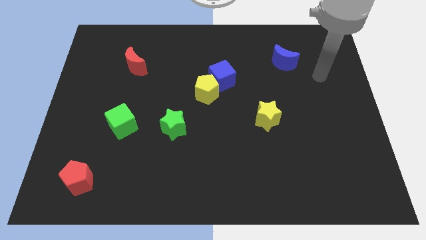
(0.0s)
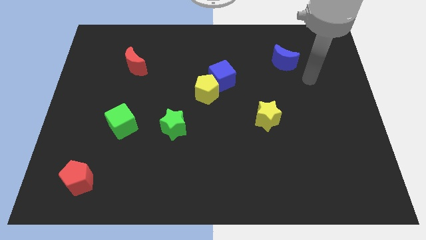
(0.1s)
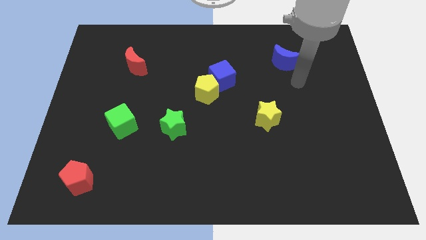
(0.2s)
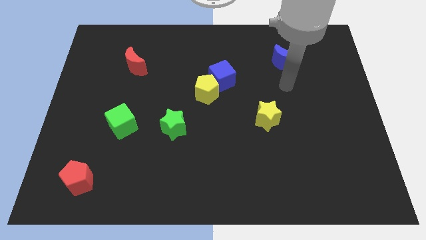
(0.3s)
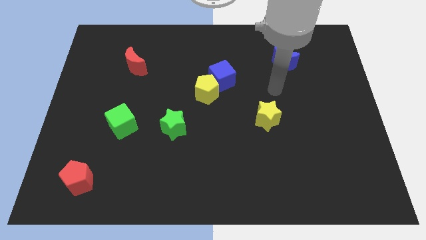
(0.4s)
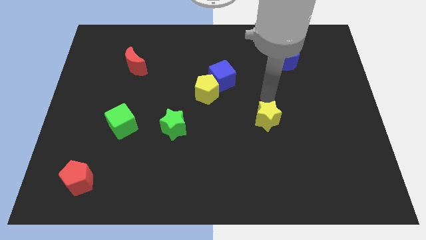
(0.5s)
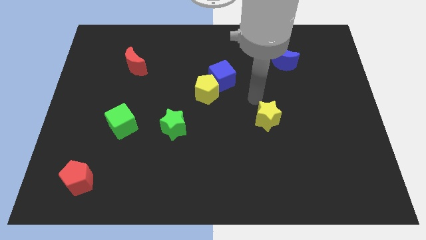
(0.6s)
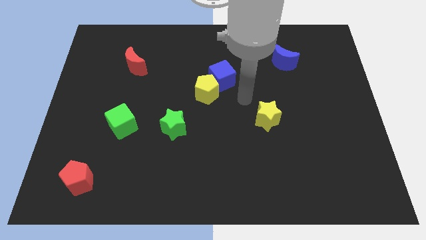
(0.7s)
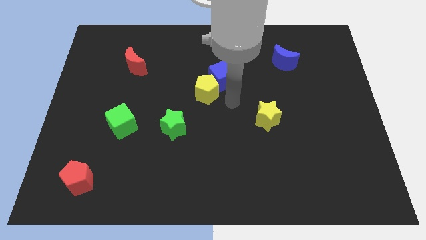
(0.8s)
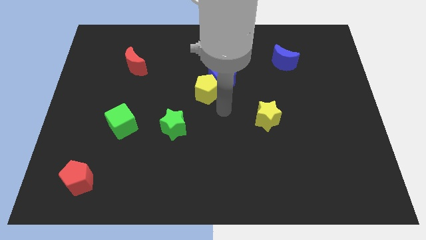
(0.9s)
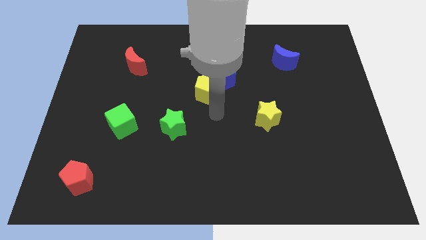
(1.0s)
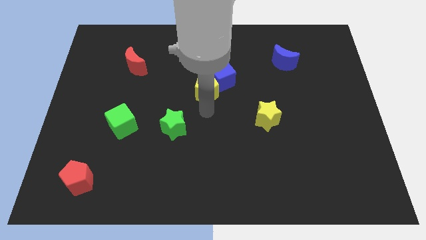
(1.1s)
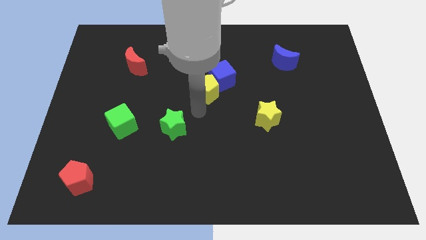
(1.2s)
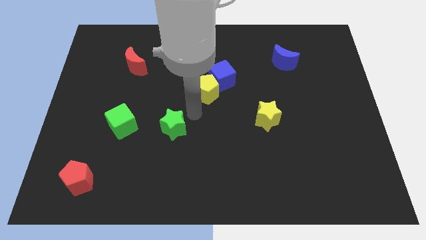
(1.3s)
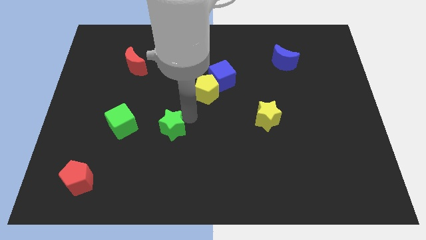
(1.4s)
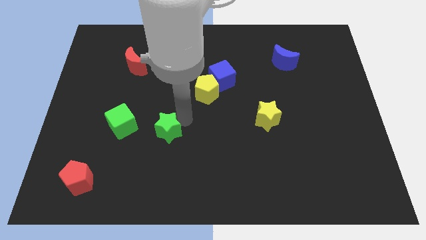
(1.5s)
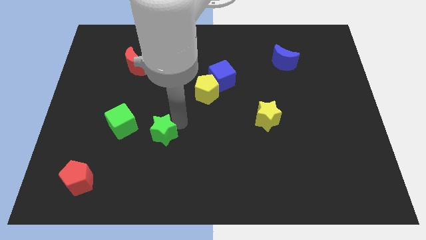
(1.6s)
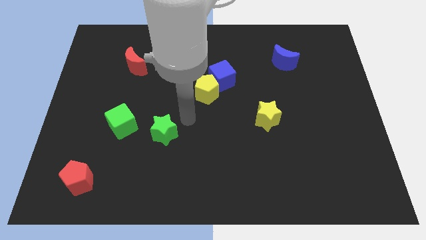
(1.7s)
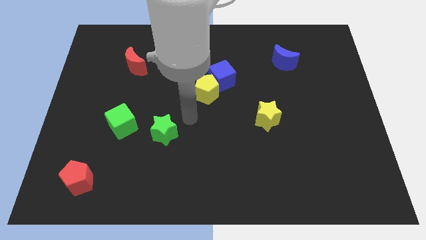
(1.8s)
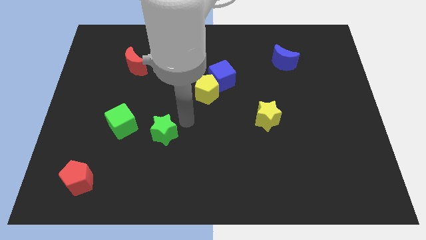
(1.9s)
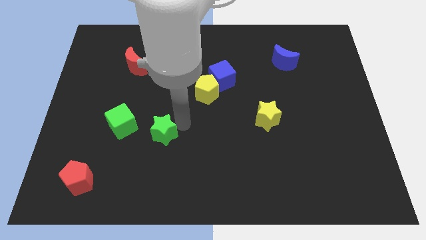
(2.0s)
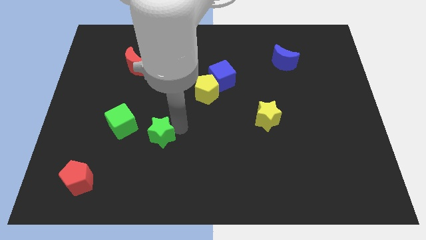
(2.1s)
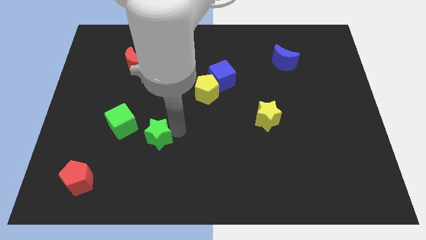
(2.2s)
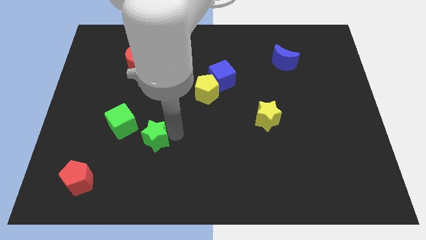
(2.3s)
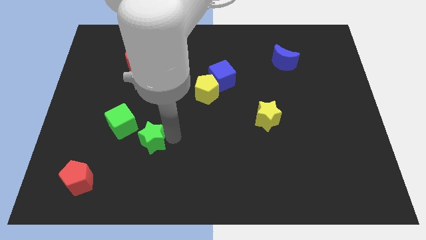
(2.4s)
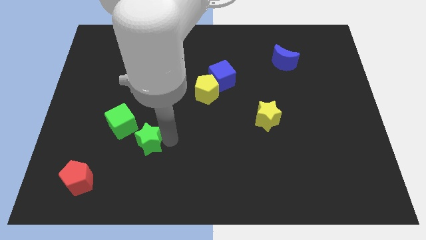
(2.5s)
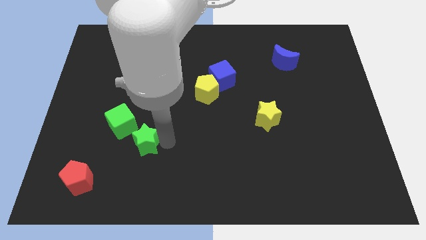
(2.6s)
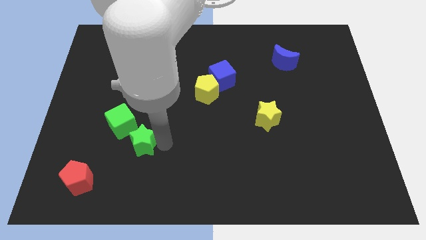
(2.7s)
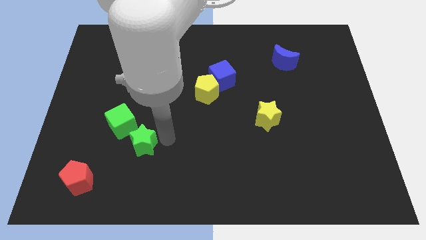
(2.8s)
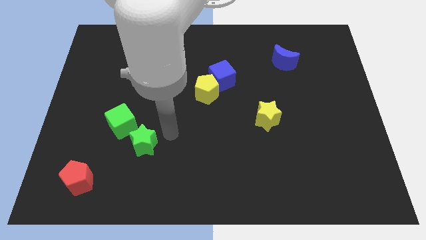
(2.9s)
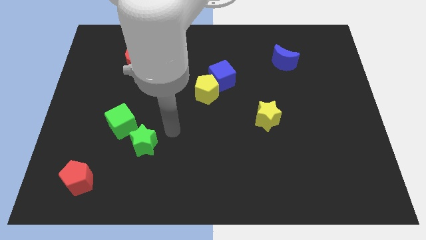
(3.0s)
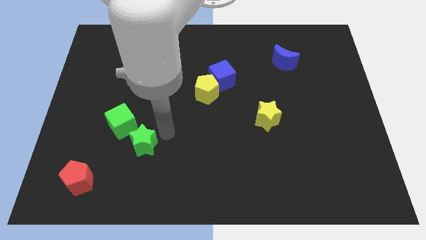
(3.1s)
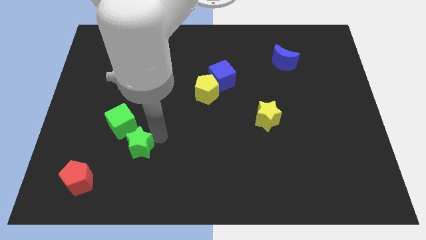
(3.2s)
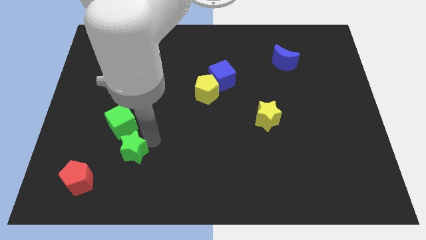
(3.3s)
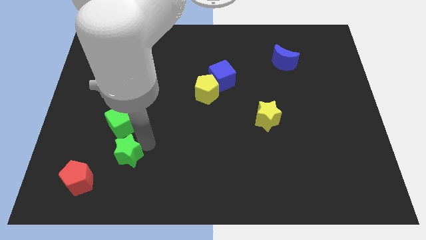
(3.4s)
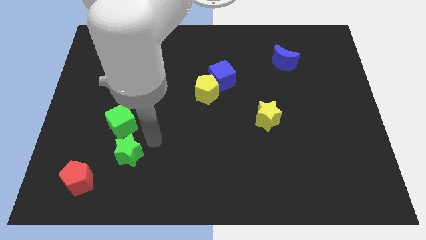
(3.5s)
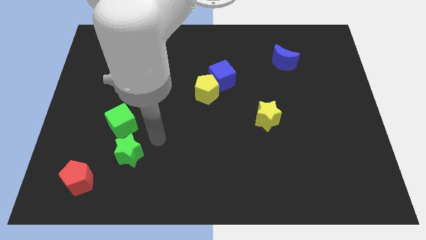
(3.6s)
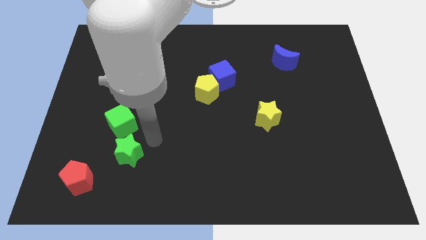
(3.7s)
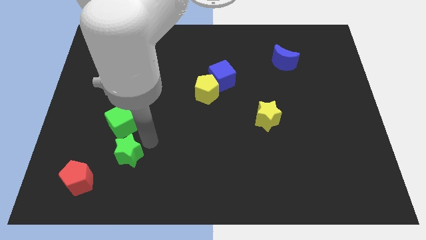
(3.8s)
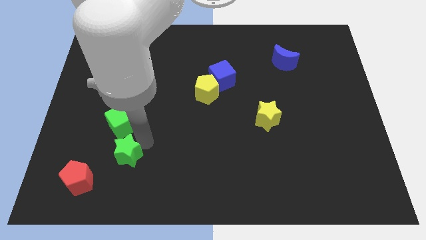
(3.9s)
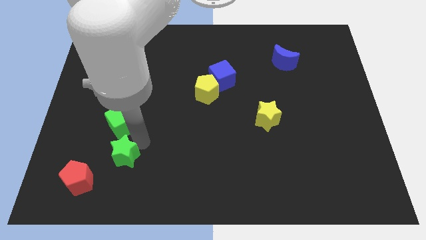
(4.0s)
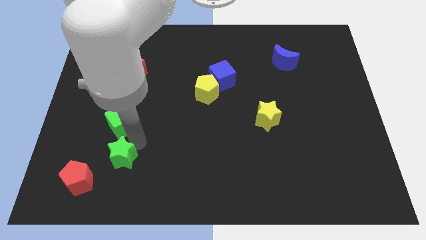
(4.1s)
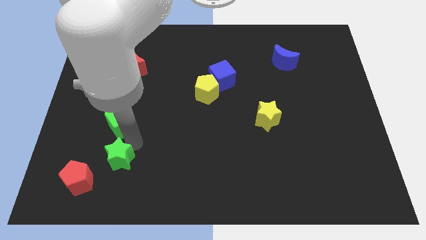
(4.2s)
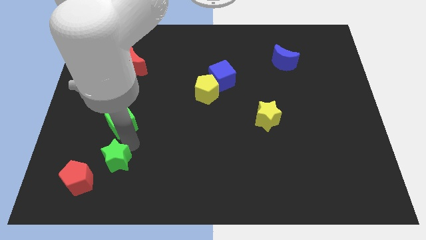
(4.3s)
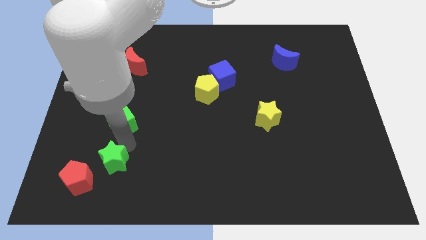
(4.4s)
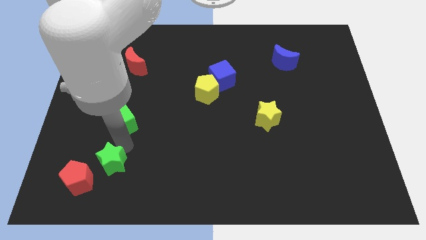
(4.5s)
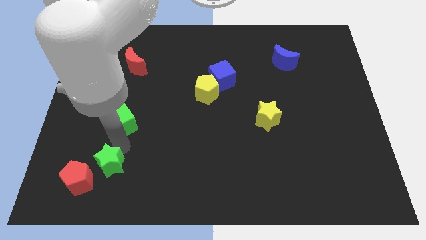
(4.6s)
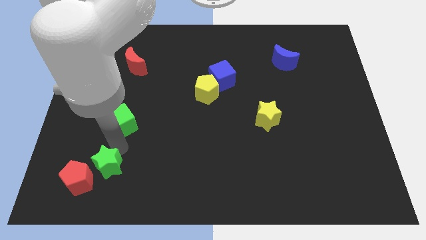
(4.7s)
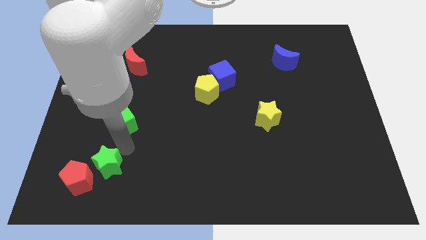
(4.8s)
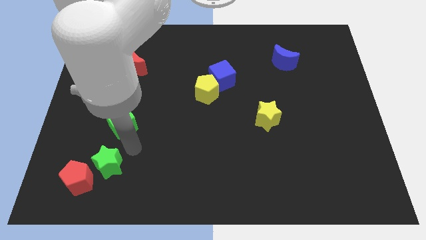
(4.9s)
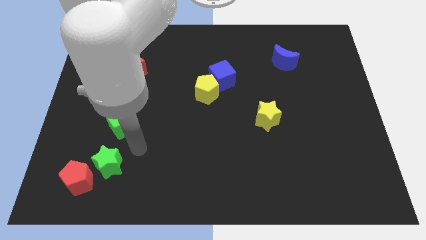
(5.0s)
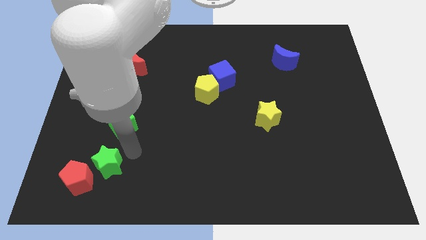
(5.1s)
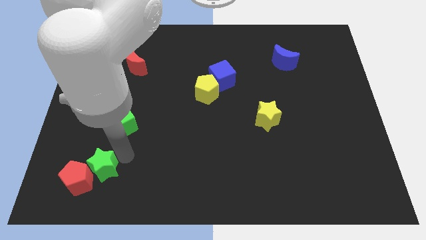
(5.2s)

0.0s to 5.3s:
put the green star towards the red pentagon

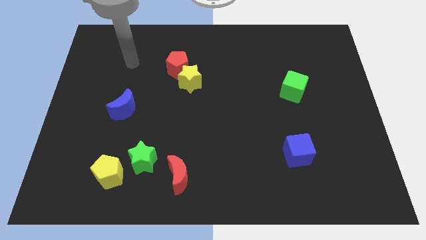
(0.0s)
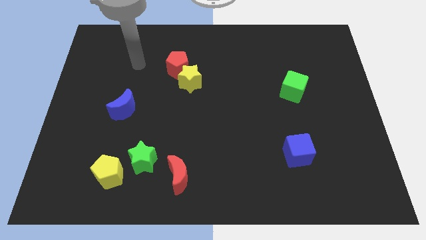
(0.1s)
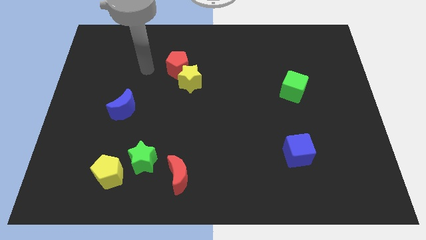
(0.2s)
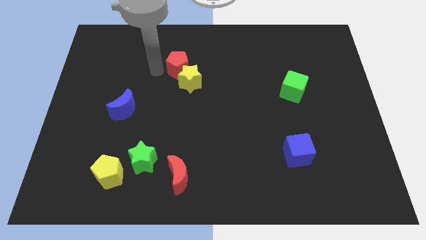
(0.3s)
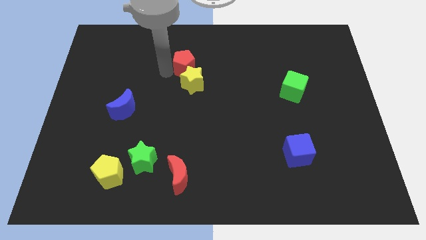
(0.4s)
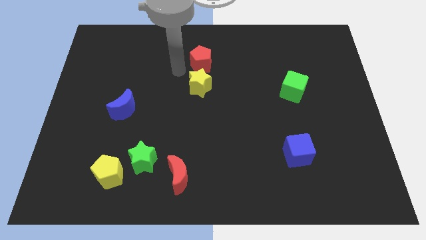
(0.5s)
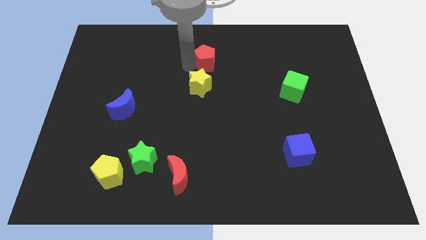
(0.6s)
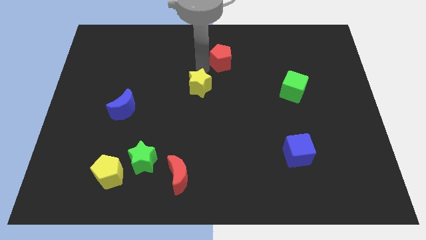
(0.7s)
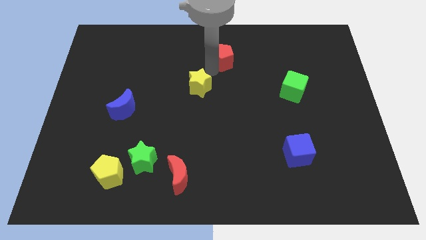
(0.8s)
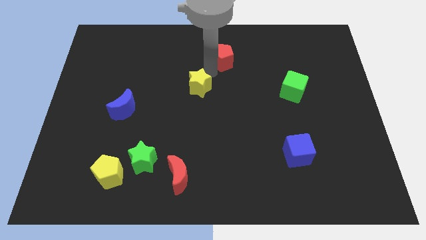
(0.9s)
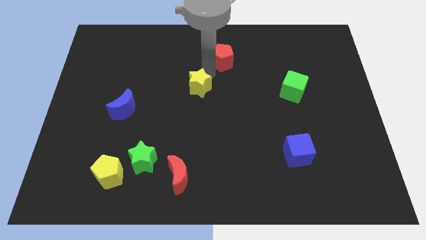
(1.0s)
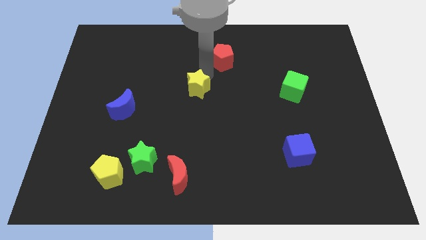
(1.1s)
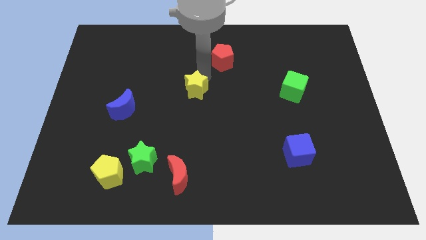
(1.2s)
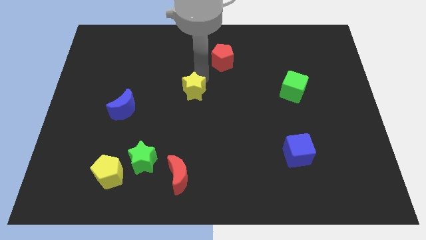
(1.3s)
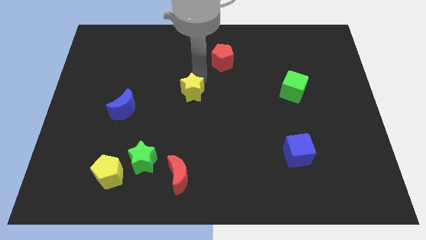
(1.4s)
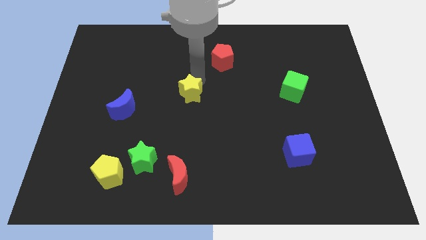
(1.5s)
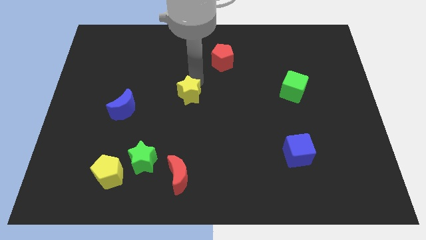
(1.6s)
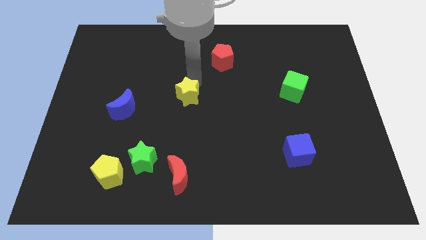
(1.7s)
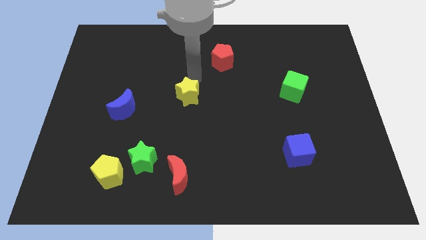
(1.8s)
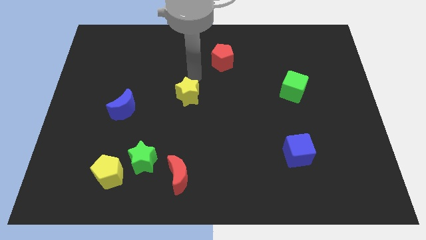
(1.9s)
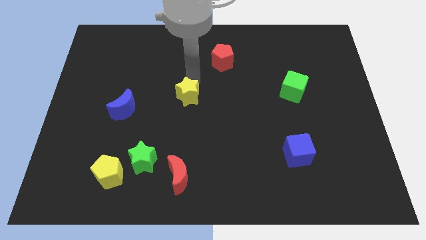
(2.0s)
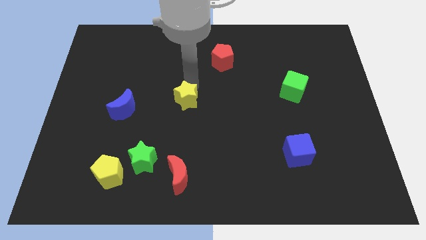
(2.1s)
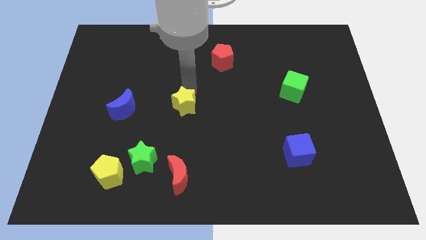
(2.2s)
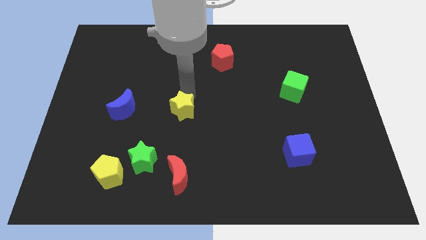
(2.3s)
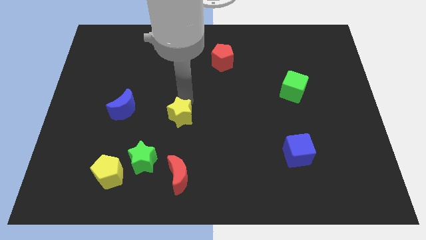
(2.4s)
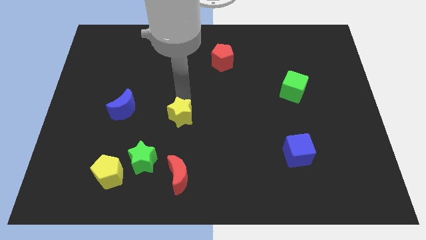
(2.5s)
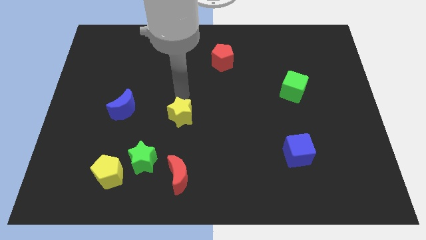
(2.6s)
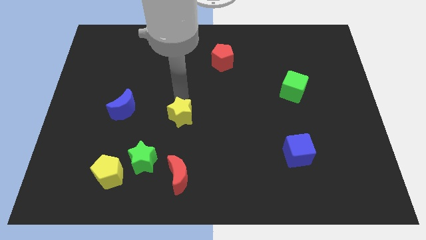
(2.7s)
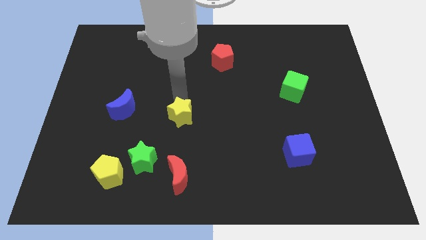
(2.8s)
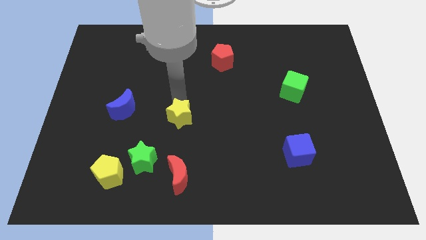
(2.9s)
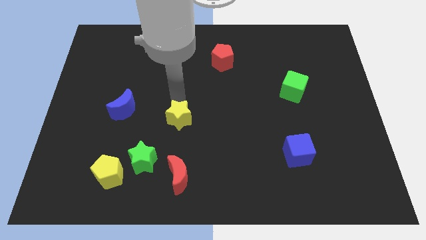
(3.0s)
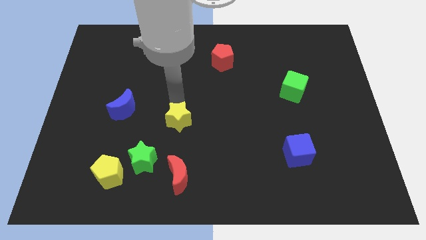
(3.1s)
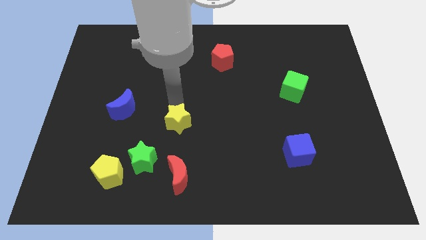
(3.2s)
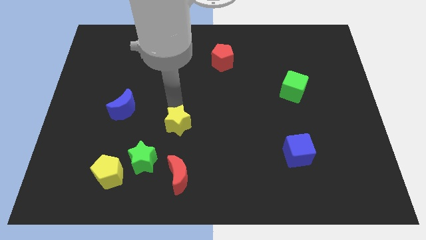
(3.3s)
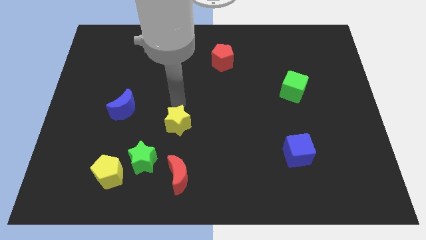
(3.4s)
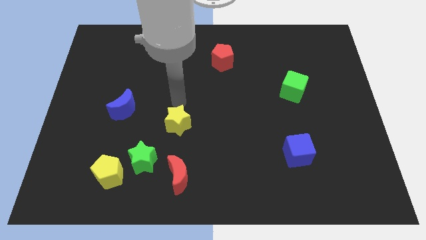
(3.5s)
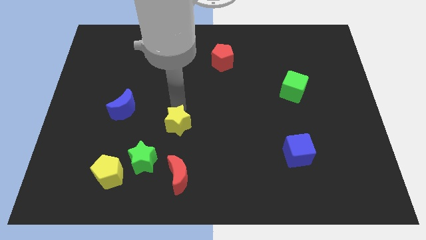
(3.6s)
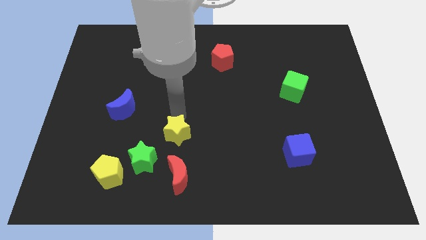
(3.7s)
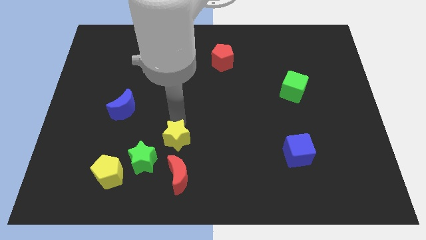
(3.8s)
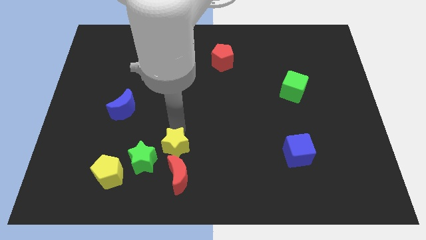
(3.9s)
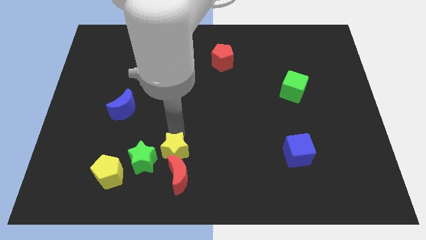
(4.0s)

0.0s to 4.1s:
push the yellow star next to the red moon
